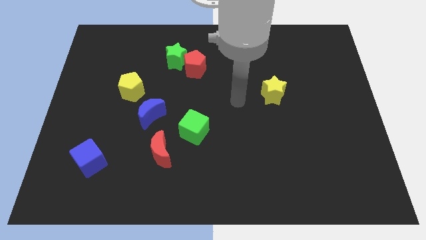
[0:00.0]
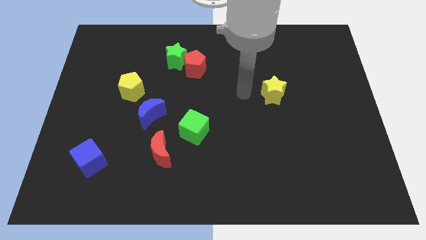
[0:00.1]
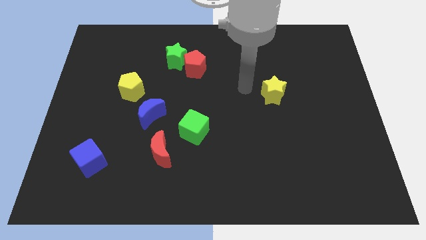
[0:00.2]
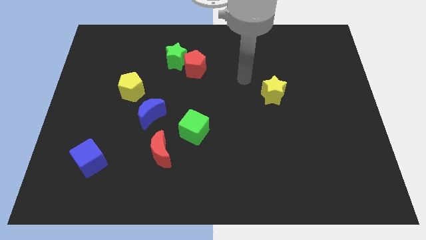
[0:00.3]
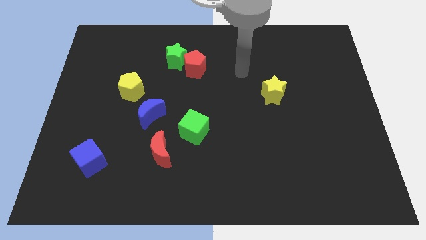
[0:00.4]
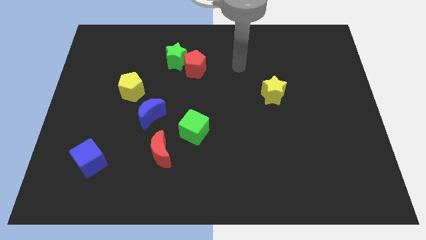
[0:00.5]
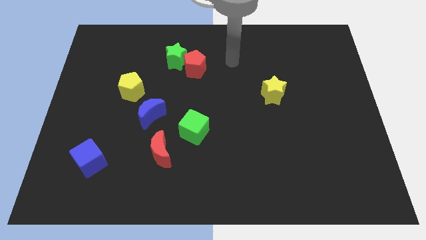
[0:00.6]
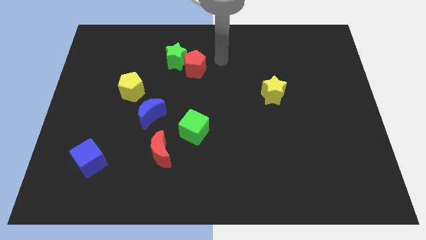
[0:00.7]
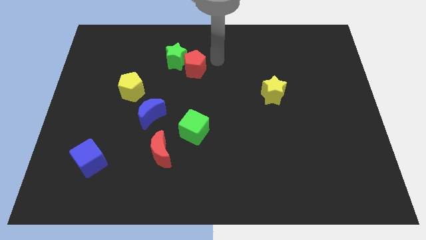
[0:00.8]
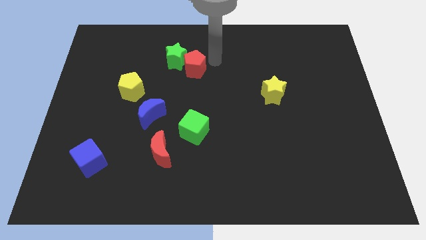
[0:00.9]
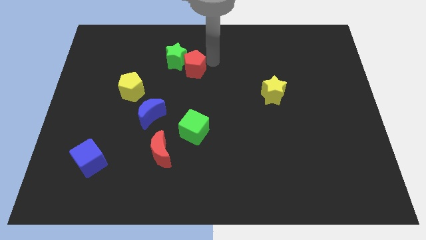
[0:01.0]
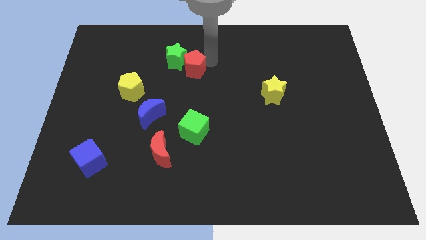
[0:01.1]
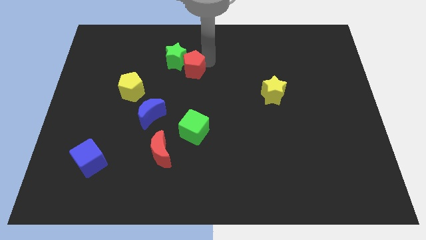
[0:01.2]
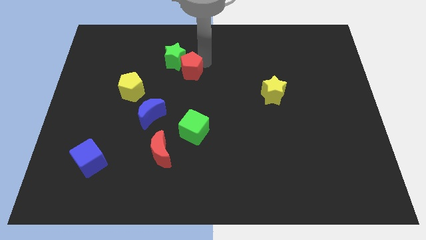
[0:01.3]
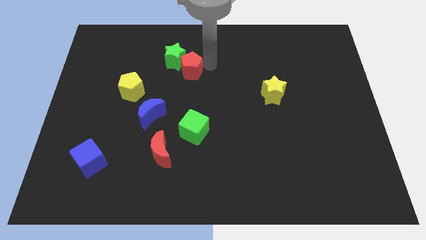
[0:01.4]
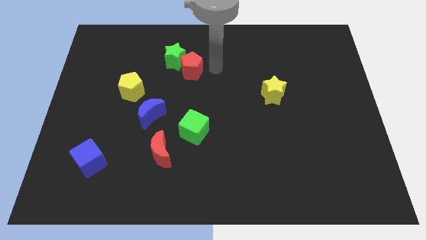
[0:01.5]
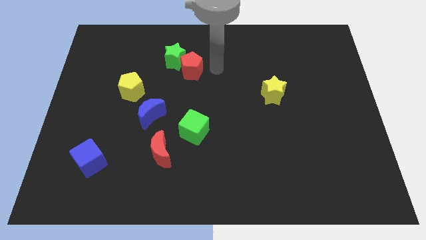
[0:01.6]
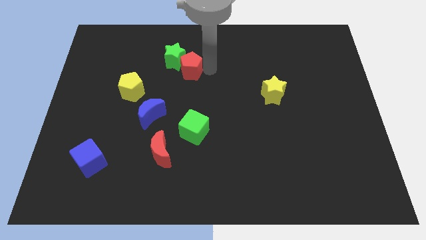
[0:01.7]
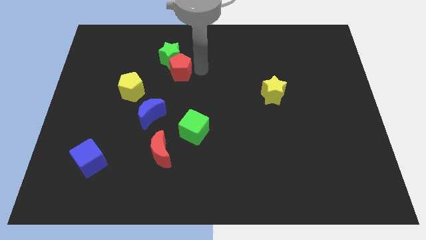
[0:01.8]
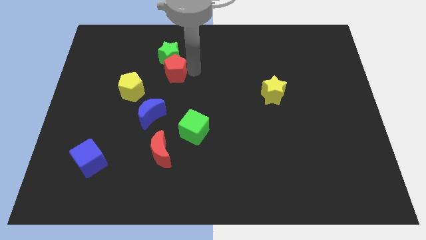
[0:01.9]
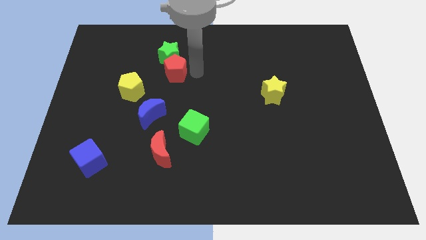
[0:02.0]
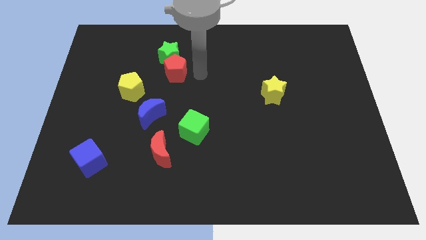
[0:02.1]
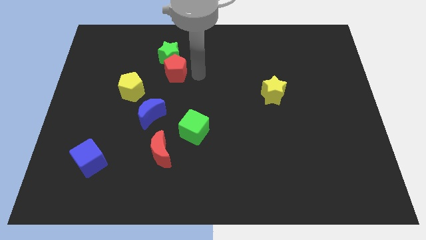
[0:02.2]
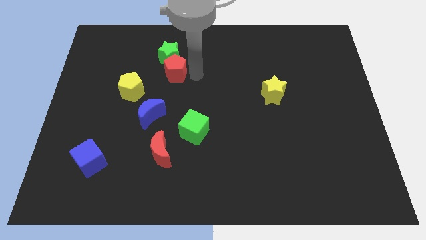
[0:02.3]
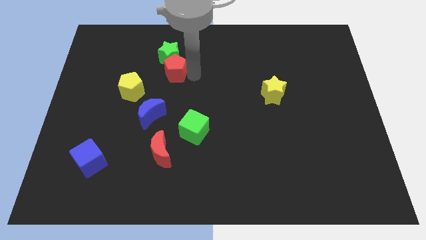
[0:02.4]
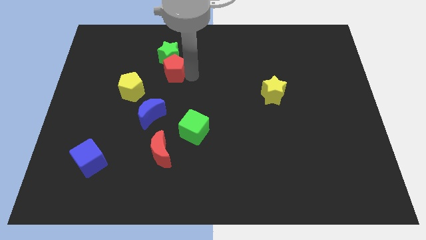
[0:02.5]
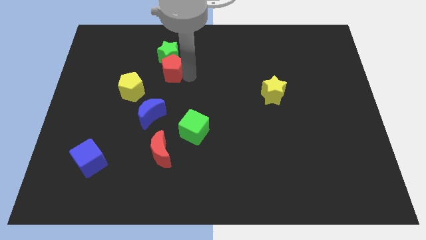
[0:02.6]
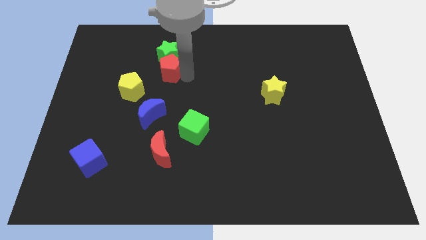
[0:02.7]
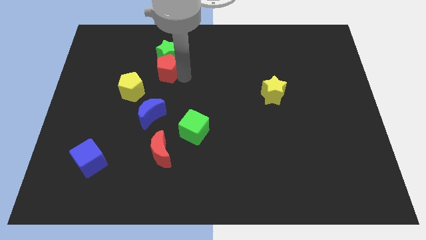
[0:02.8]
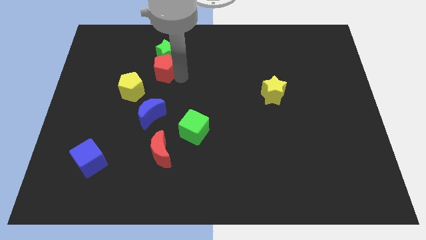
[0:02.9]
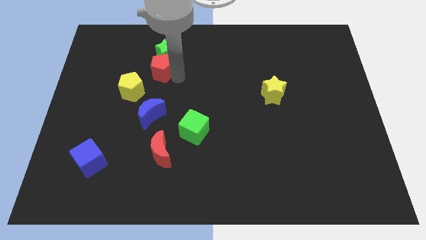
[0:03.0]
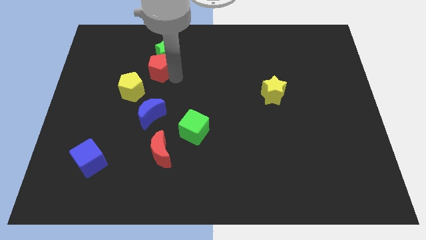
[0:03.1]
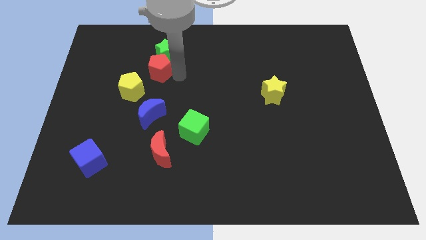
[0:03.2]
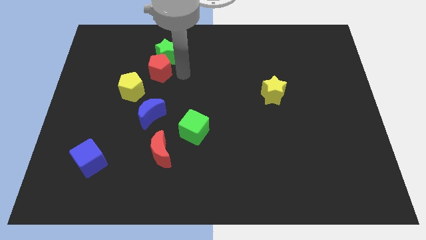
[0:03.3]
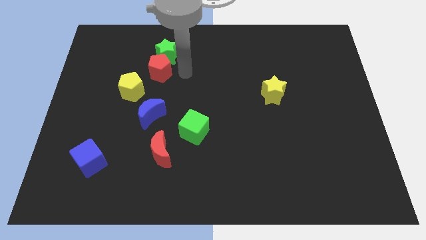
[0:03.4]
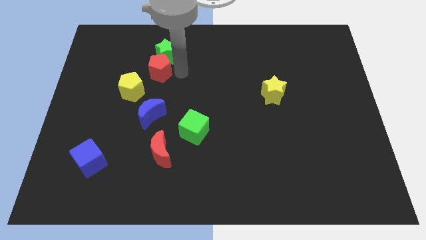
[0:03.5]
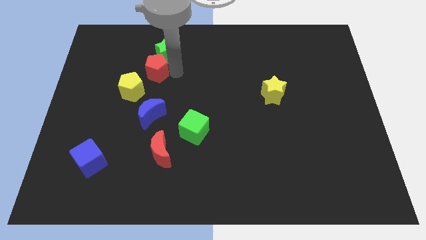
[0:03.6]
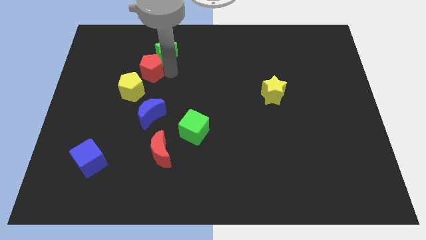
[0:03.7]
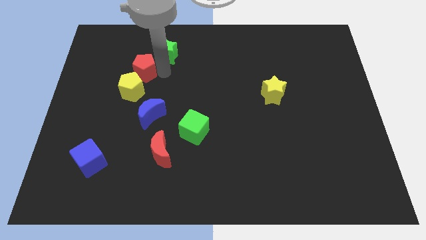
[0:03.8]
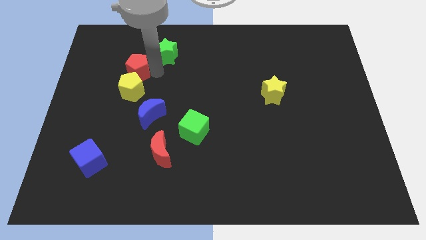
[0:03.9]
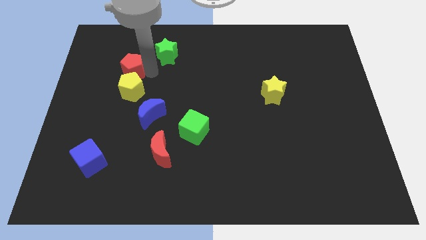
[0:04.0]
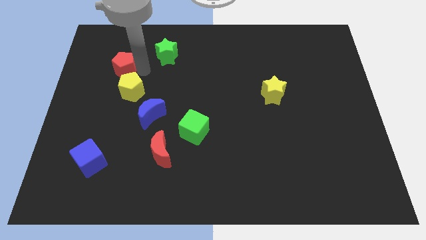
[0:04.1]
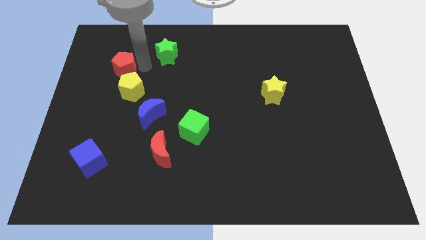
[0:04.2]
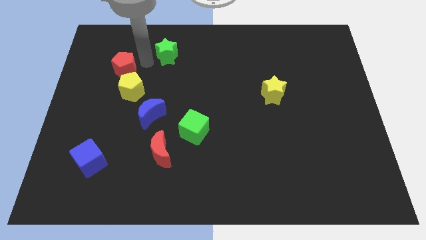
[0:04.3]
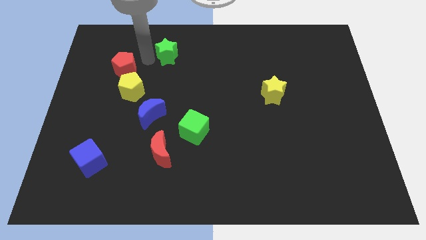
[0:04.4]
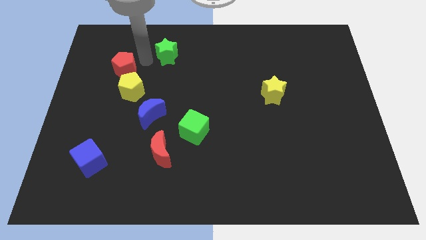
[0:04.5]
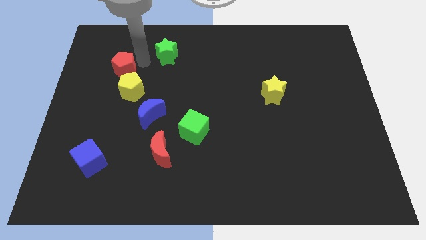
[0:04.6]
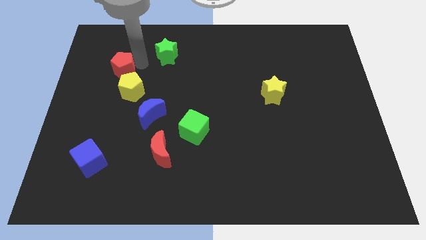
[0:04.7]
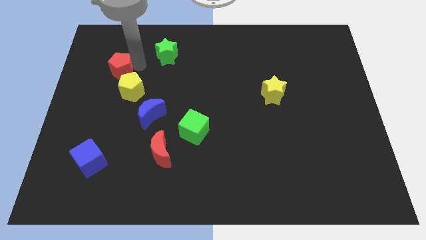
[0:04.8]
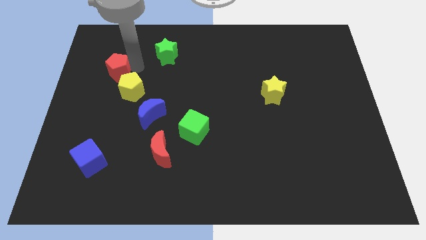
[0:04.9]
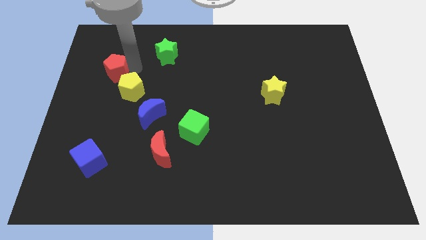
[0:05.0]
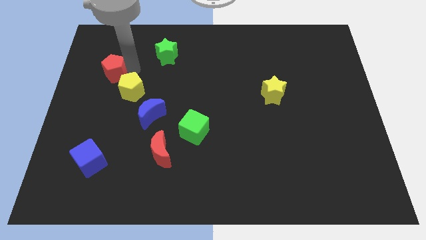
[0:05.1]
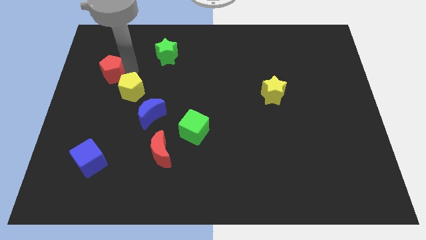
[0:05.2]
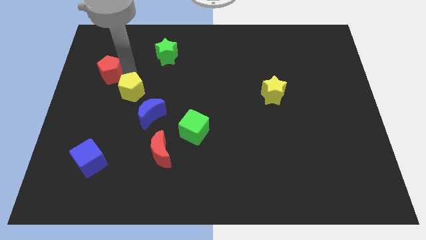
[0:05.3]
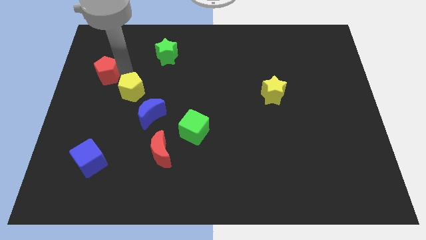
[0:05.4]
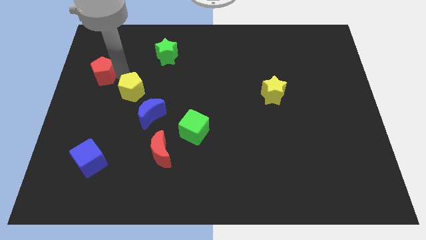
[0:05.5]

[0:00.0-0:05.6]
slide the red pentagon to the left side of the board
